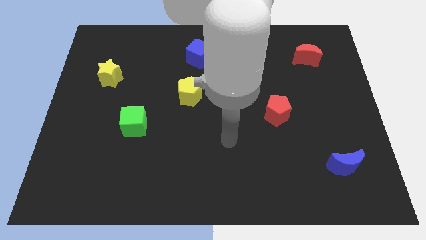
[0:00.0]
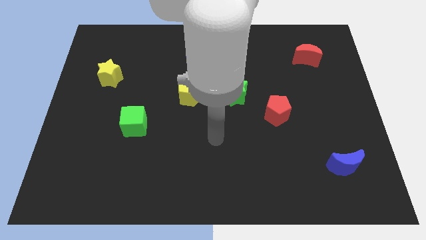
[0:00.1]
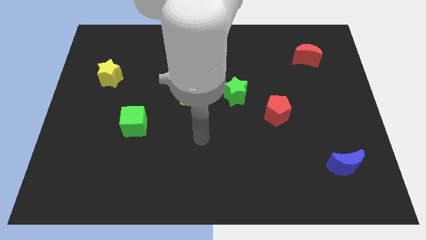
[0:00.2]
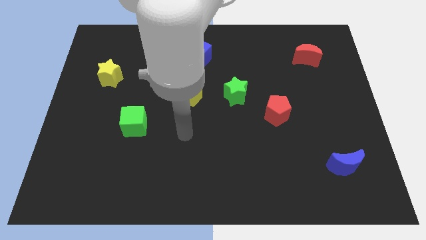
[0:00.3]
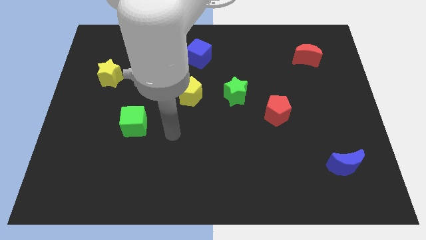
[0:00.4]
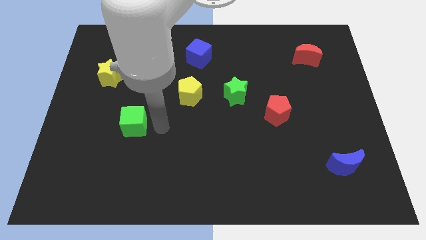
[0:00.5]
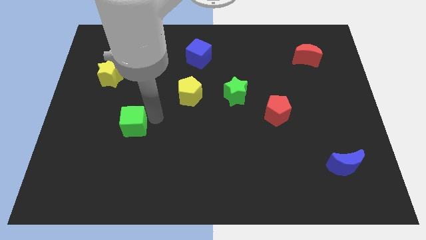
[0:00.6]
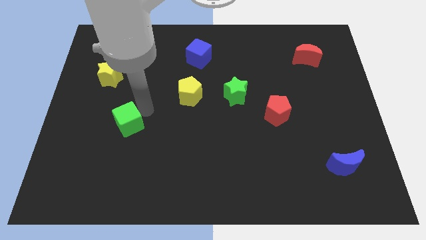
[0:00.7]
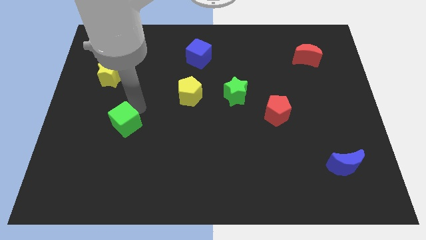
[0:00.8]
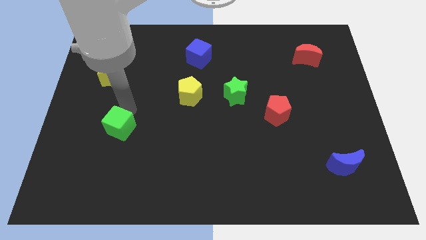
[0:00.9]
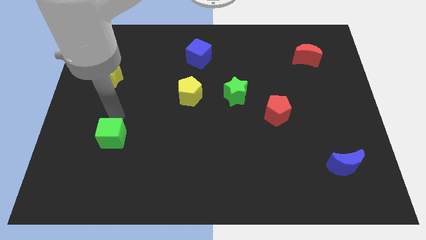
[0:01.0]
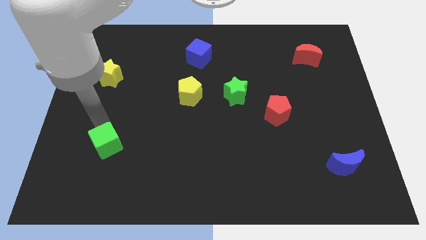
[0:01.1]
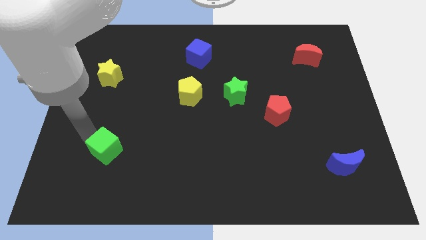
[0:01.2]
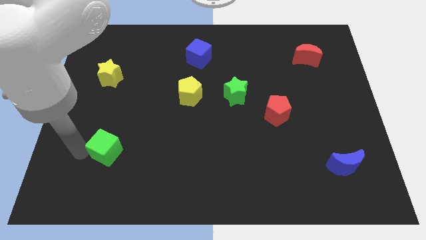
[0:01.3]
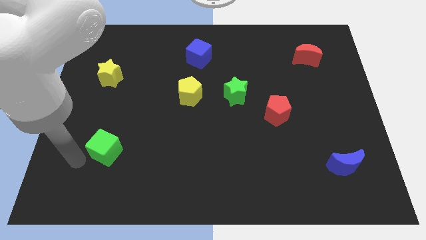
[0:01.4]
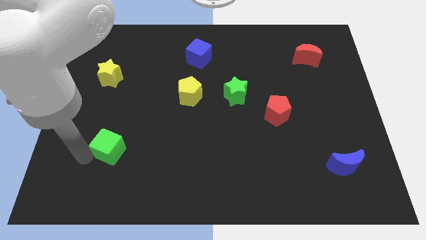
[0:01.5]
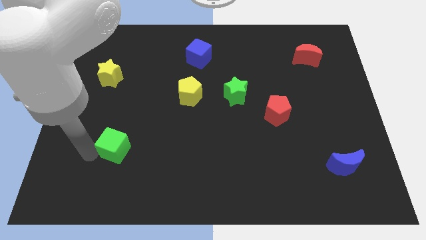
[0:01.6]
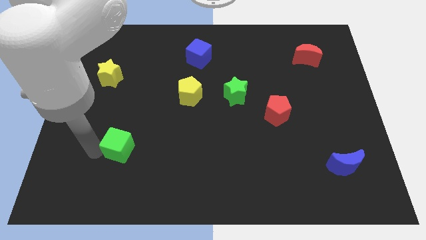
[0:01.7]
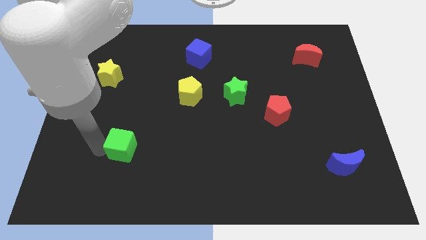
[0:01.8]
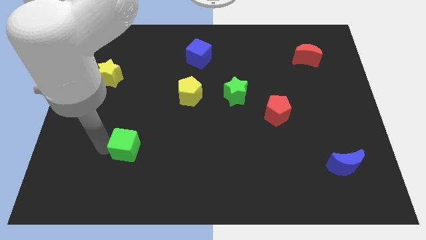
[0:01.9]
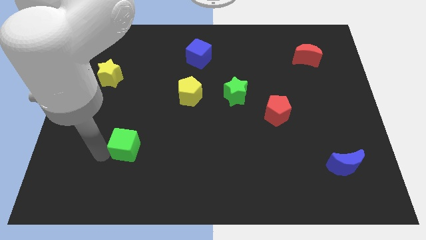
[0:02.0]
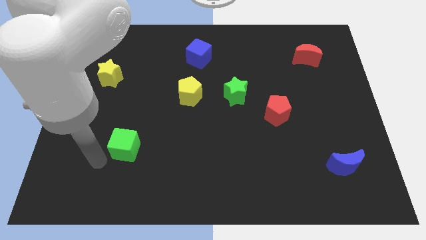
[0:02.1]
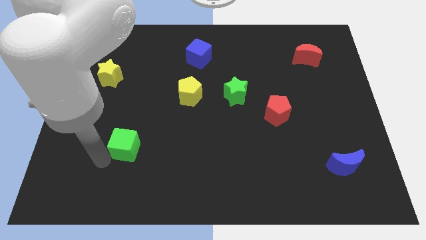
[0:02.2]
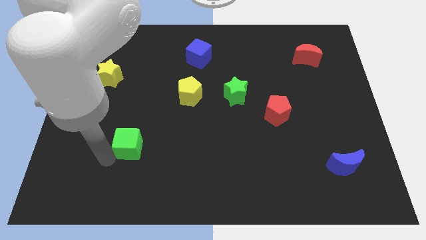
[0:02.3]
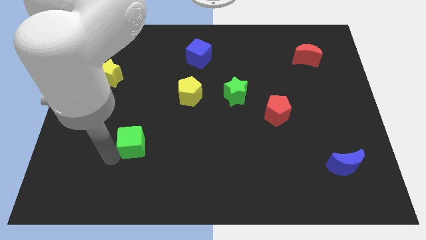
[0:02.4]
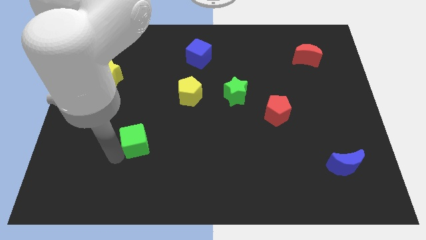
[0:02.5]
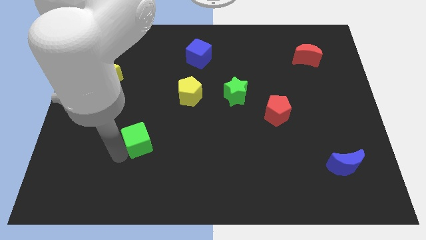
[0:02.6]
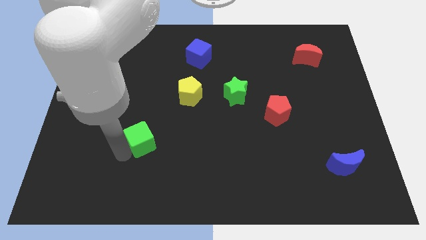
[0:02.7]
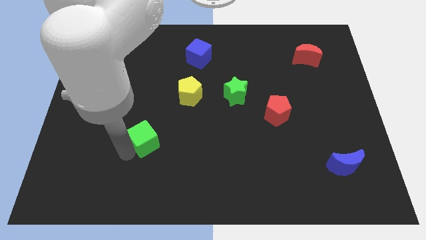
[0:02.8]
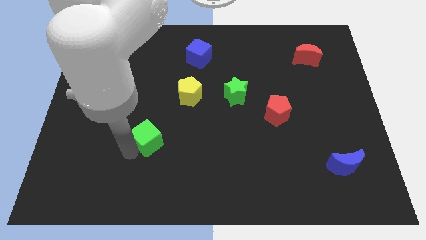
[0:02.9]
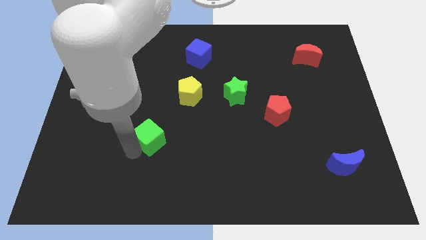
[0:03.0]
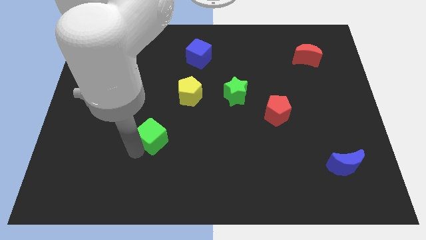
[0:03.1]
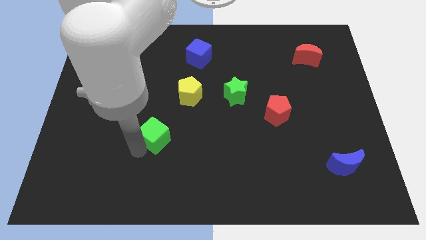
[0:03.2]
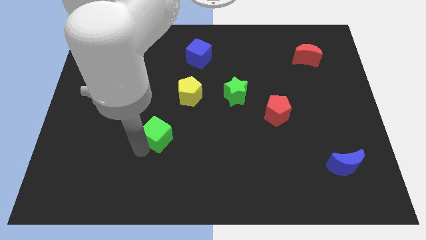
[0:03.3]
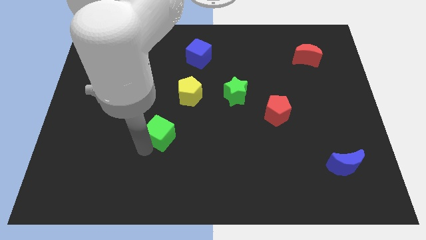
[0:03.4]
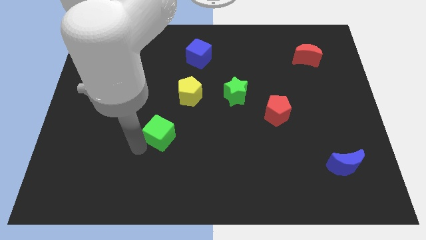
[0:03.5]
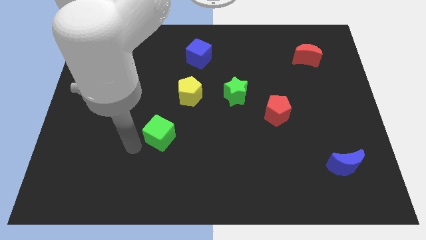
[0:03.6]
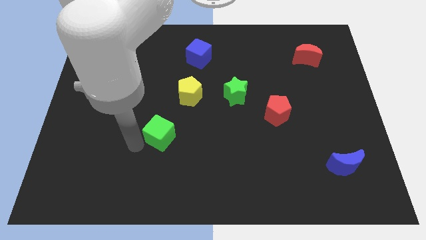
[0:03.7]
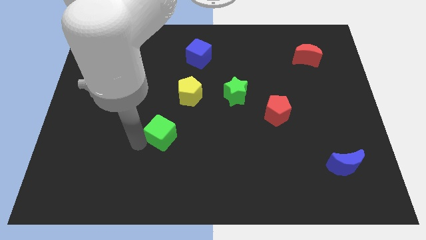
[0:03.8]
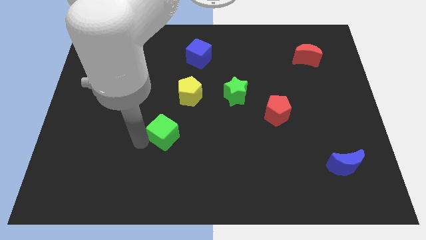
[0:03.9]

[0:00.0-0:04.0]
slide the green cube right a little

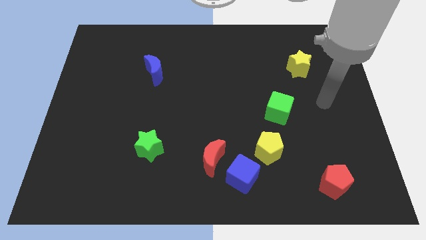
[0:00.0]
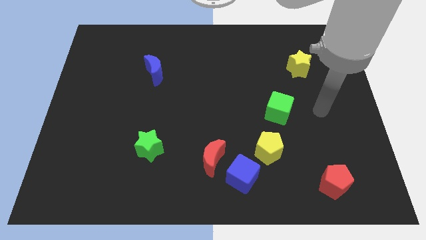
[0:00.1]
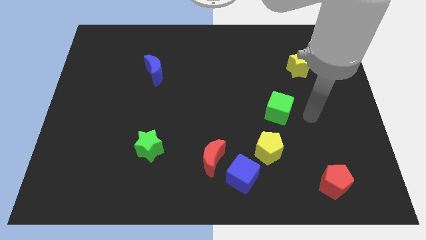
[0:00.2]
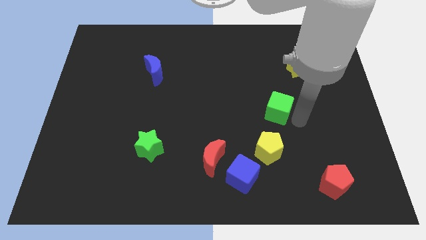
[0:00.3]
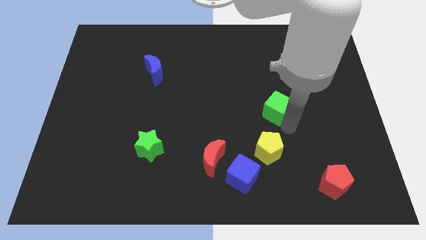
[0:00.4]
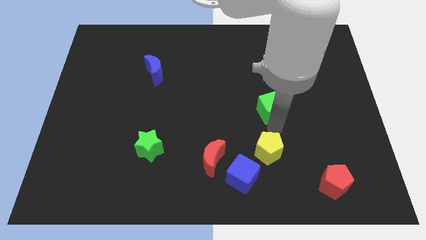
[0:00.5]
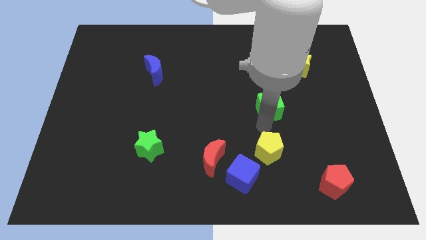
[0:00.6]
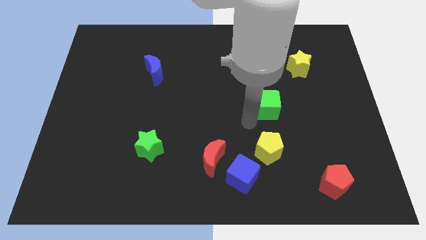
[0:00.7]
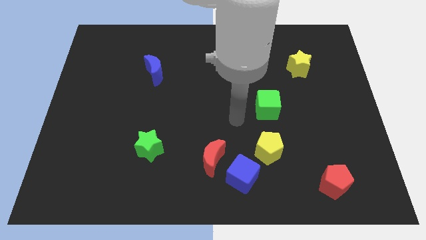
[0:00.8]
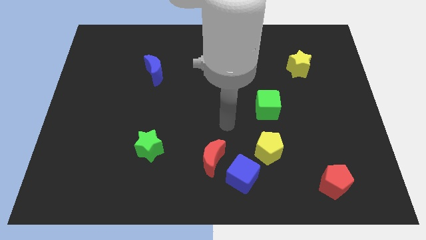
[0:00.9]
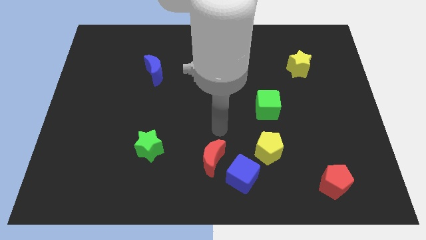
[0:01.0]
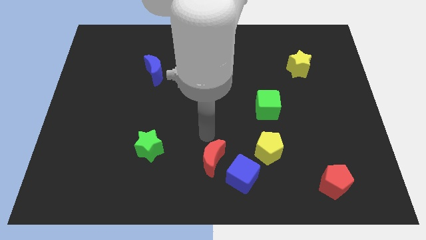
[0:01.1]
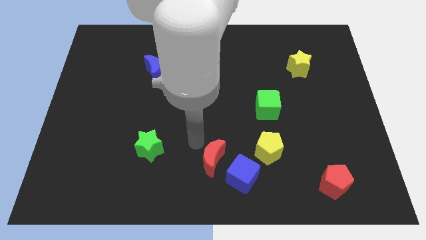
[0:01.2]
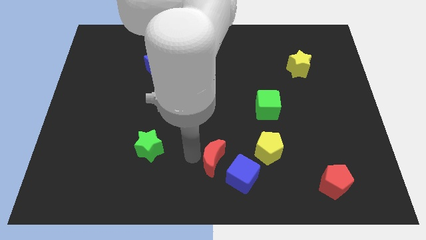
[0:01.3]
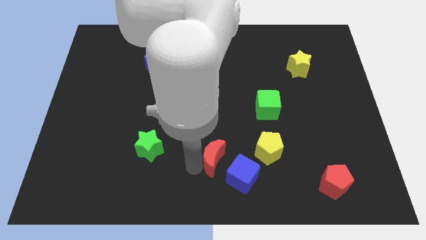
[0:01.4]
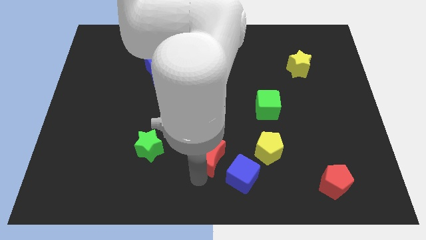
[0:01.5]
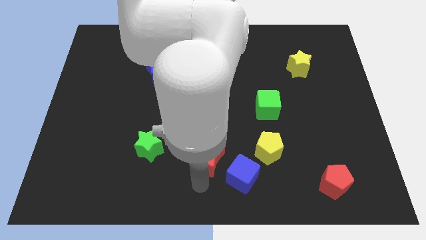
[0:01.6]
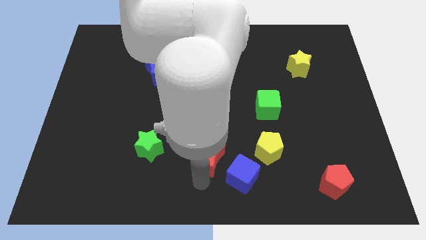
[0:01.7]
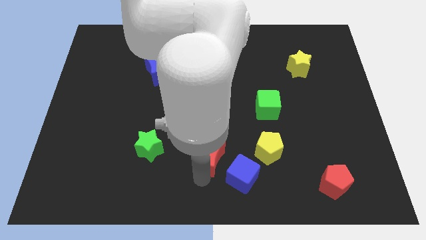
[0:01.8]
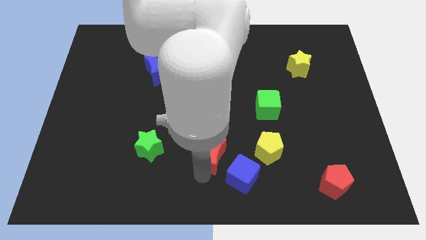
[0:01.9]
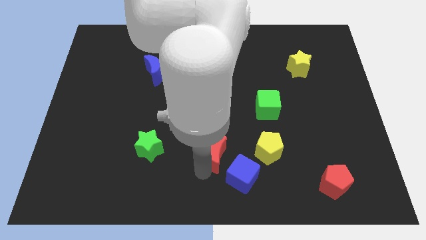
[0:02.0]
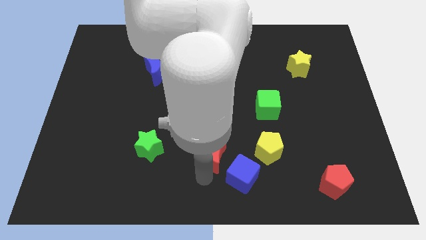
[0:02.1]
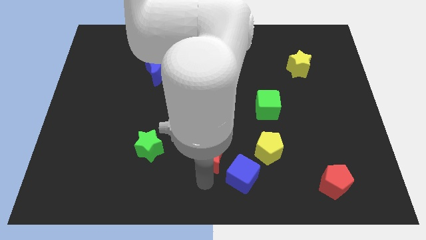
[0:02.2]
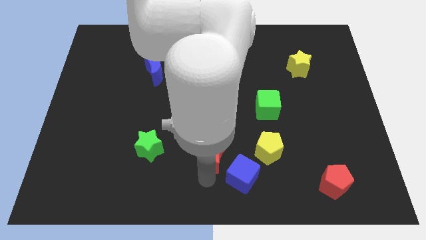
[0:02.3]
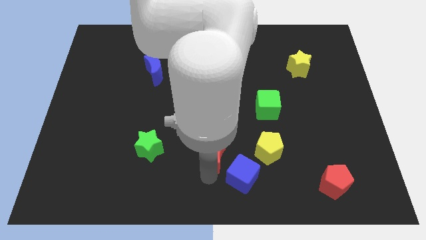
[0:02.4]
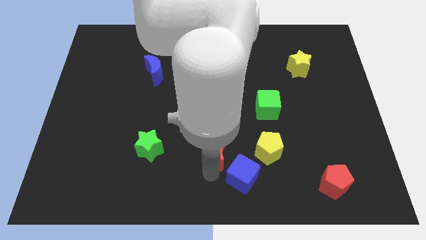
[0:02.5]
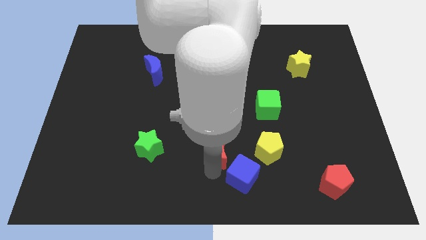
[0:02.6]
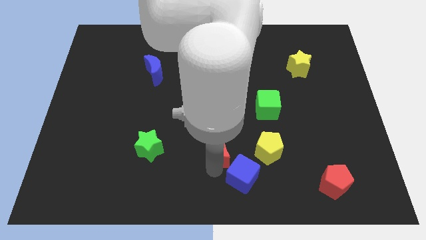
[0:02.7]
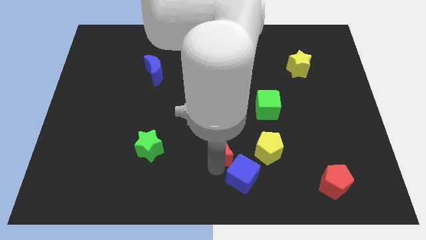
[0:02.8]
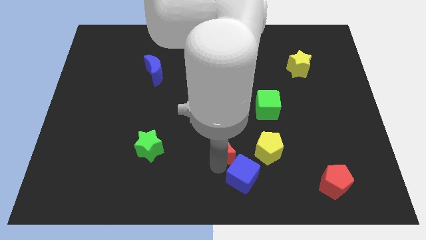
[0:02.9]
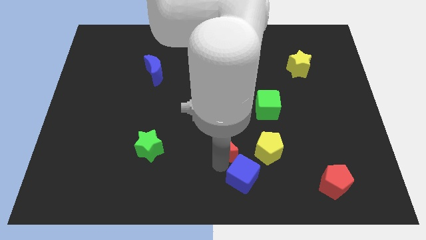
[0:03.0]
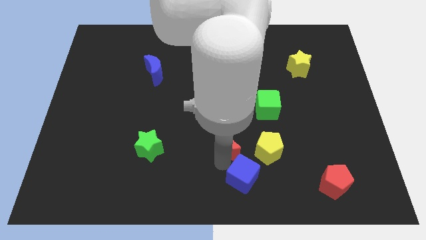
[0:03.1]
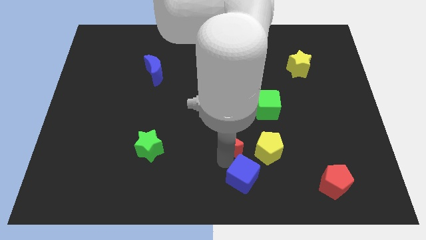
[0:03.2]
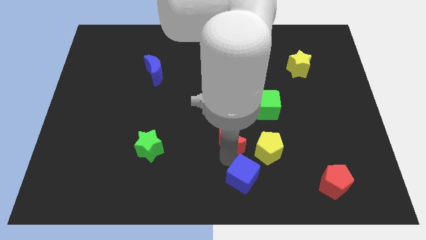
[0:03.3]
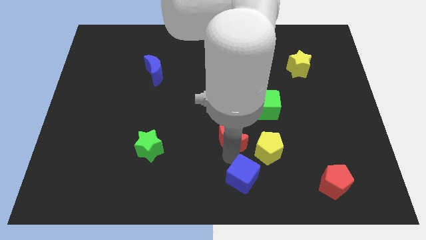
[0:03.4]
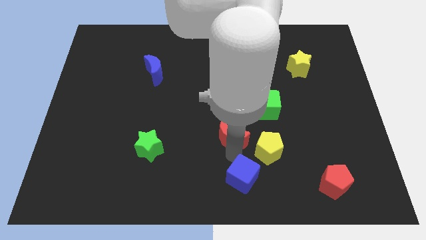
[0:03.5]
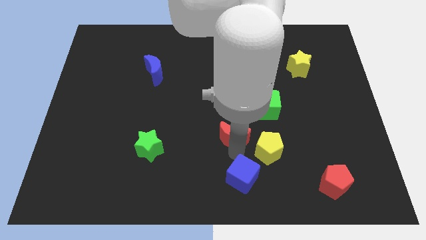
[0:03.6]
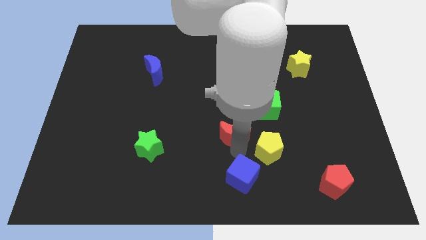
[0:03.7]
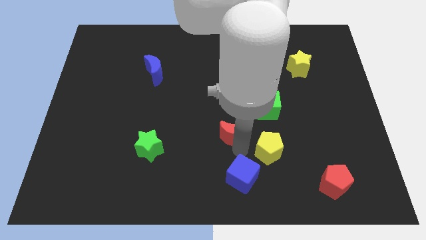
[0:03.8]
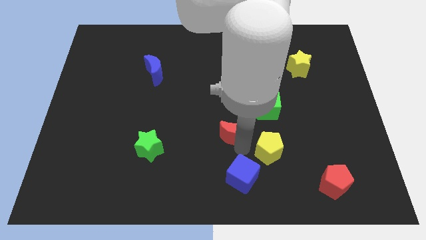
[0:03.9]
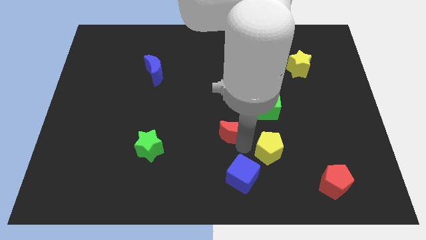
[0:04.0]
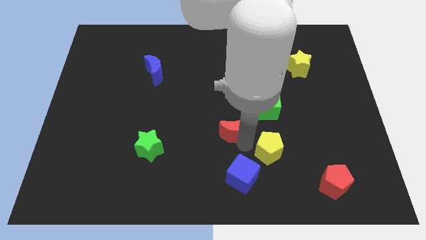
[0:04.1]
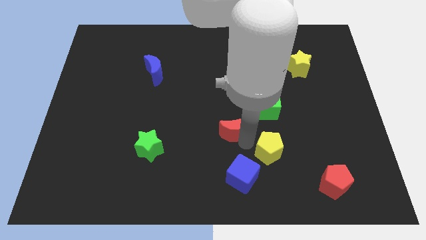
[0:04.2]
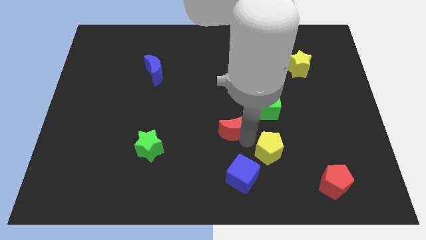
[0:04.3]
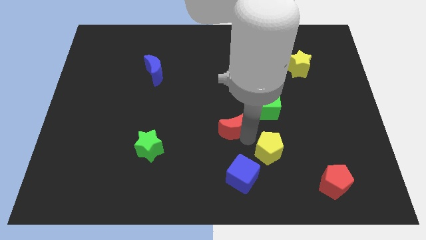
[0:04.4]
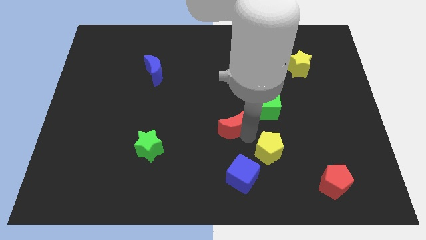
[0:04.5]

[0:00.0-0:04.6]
push the red moon upwards a little
